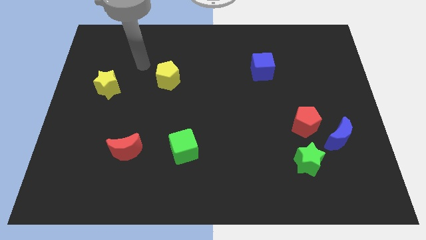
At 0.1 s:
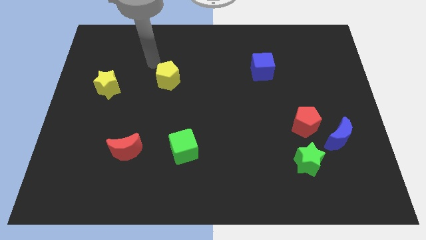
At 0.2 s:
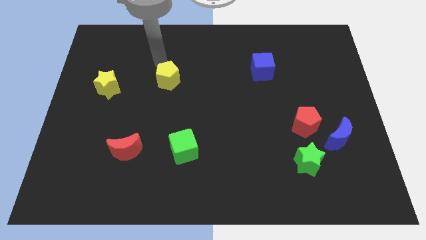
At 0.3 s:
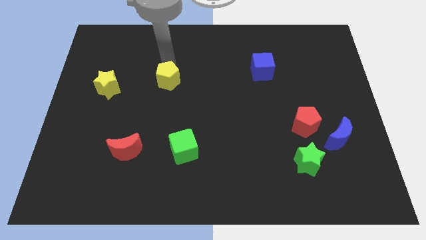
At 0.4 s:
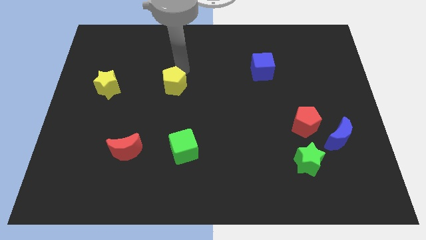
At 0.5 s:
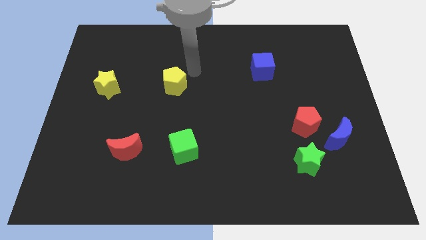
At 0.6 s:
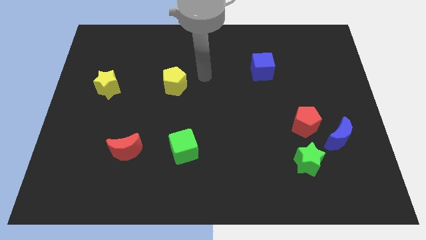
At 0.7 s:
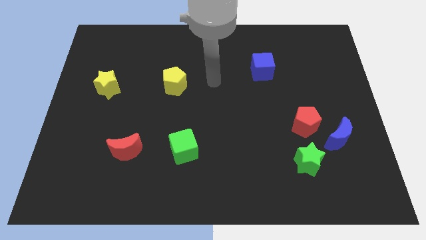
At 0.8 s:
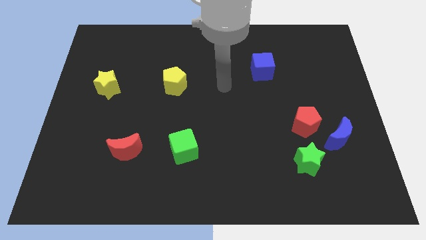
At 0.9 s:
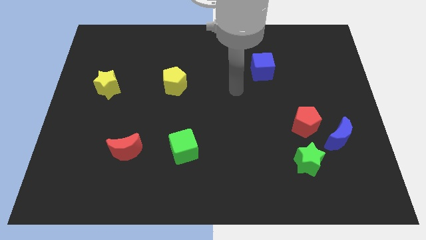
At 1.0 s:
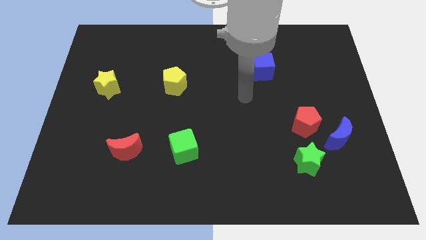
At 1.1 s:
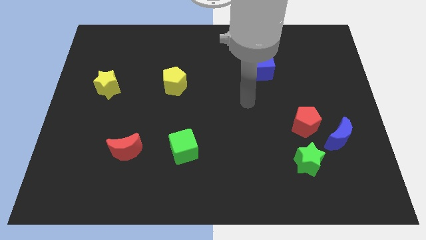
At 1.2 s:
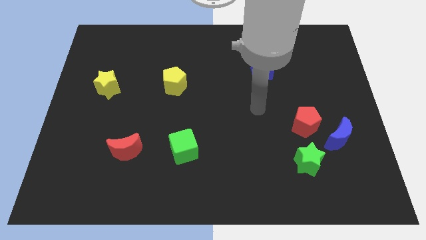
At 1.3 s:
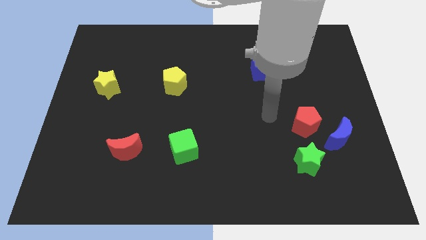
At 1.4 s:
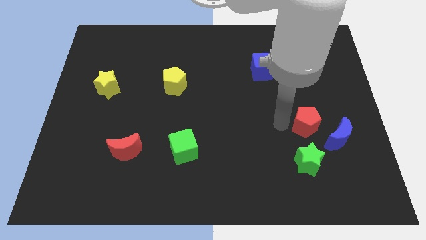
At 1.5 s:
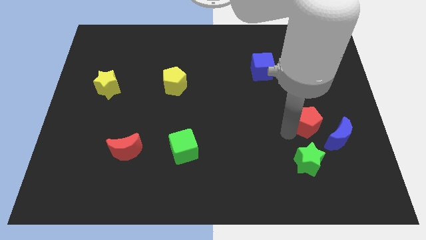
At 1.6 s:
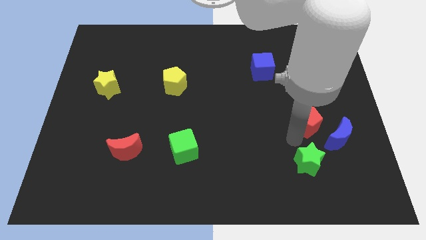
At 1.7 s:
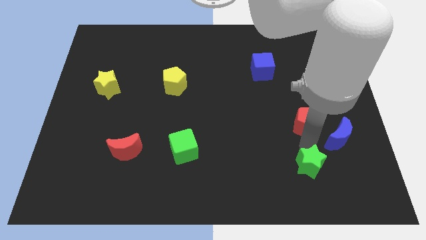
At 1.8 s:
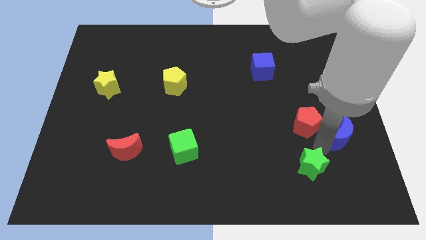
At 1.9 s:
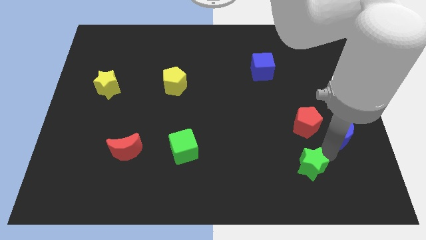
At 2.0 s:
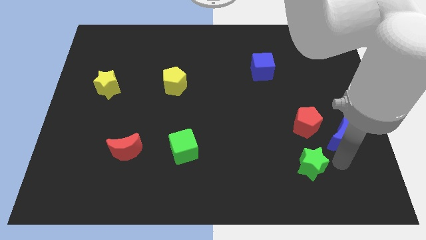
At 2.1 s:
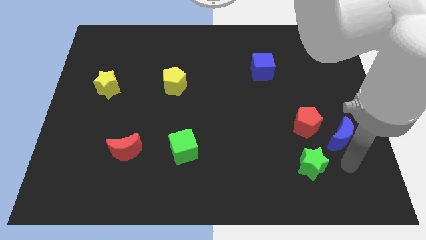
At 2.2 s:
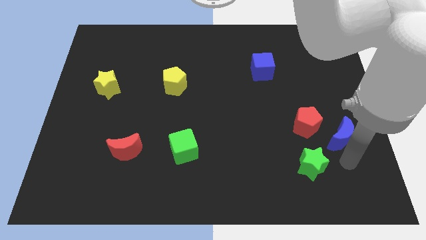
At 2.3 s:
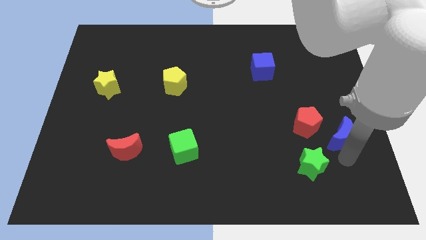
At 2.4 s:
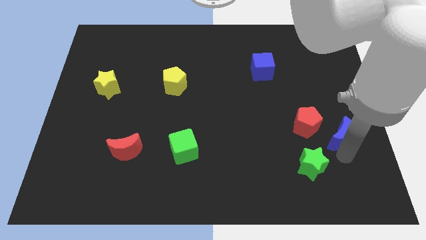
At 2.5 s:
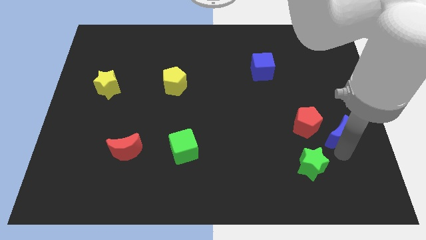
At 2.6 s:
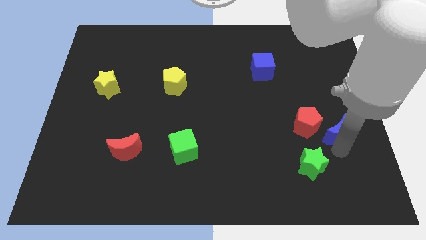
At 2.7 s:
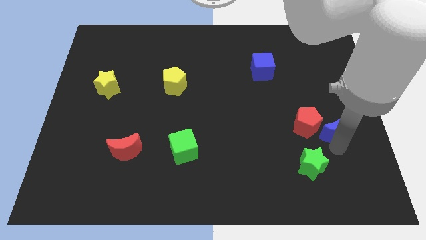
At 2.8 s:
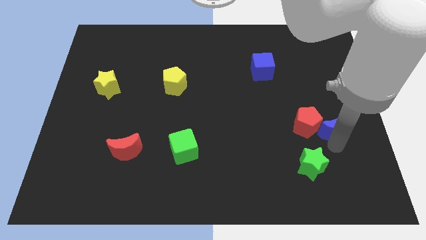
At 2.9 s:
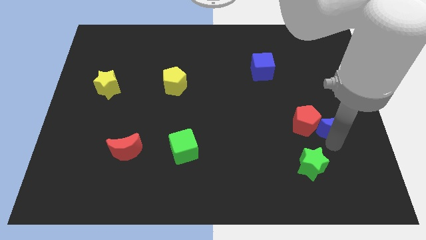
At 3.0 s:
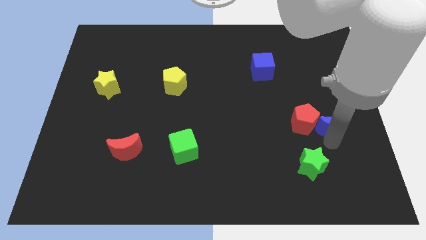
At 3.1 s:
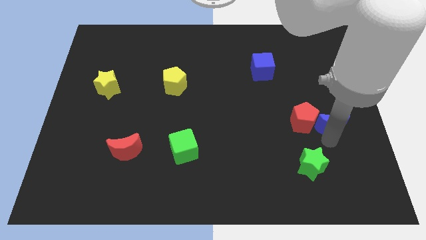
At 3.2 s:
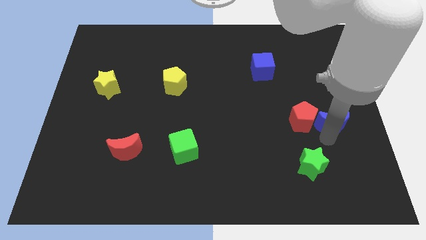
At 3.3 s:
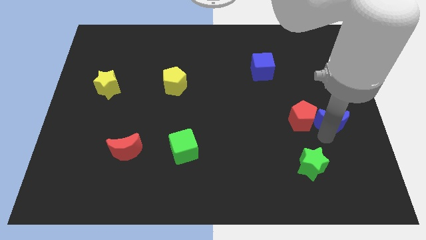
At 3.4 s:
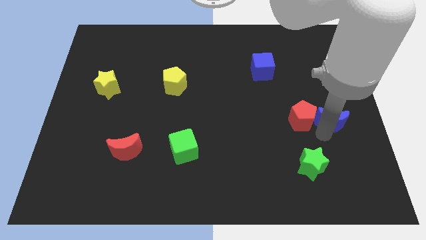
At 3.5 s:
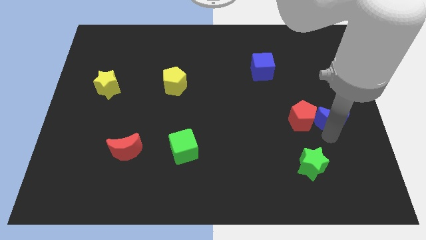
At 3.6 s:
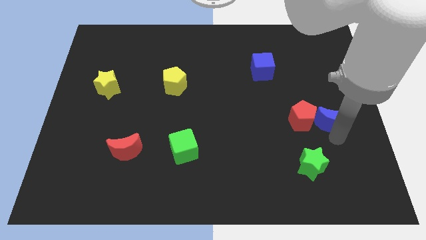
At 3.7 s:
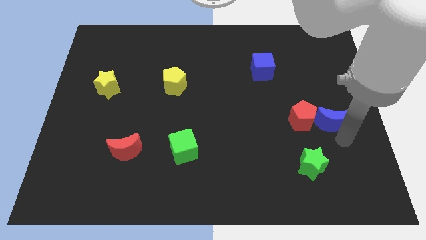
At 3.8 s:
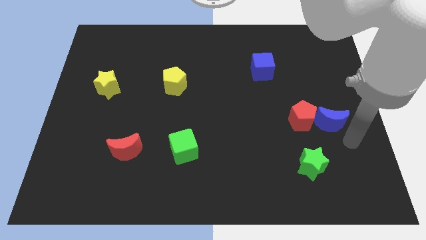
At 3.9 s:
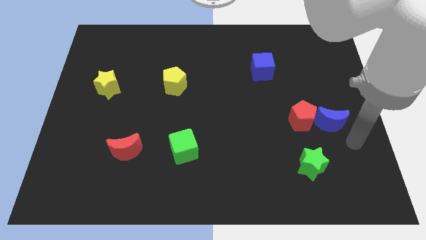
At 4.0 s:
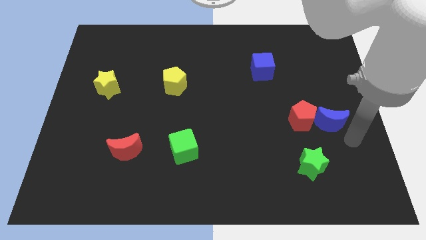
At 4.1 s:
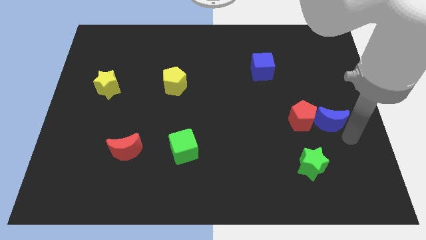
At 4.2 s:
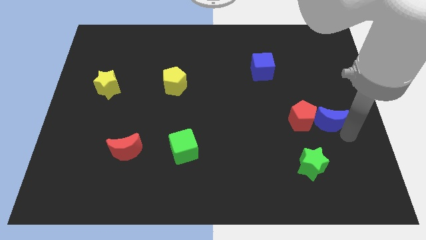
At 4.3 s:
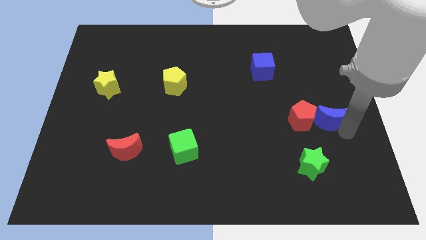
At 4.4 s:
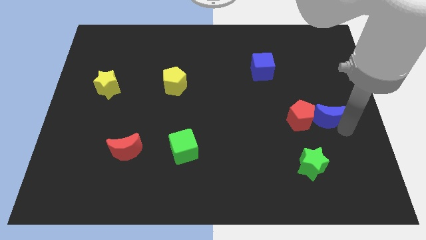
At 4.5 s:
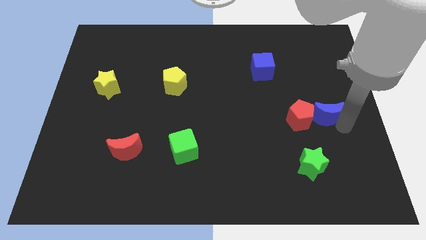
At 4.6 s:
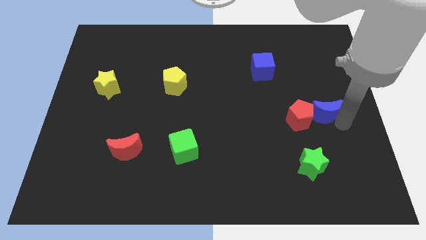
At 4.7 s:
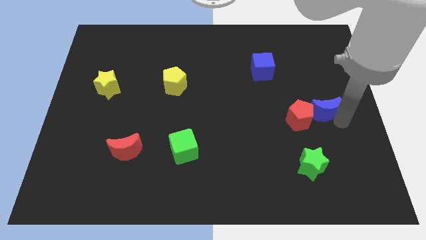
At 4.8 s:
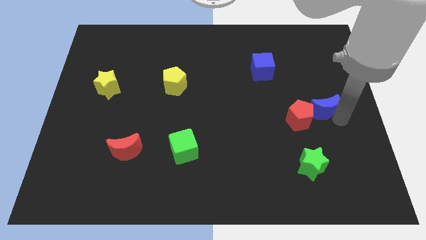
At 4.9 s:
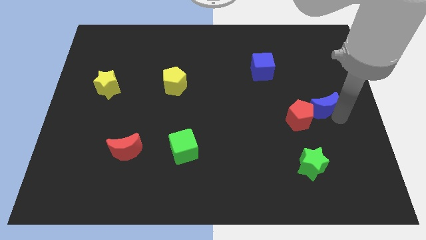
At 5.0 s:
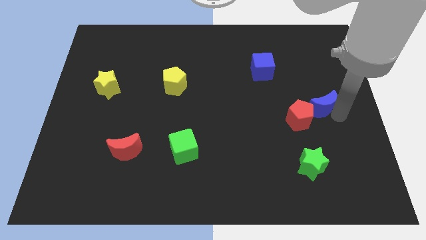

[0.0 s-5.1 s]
slide the blue moon a little bit diagonally up and left

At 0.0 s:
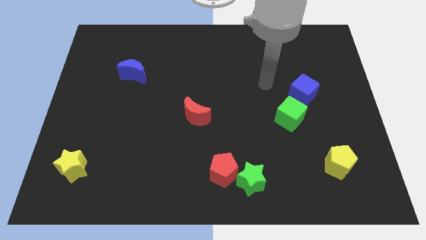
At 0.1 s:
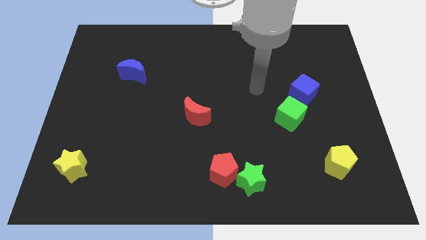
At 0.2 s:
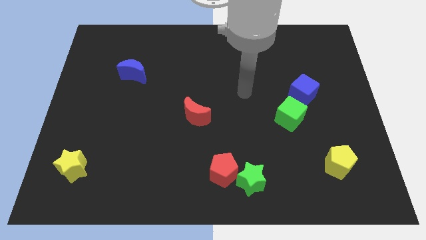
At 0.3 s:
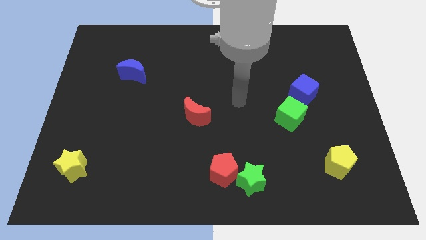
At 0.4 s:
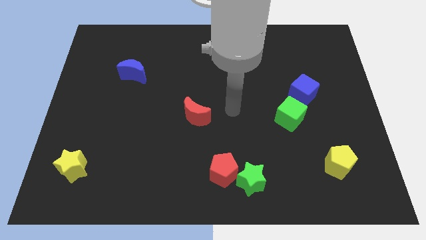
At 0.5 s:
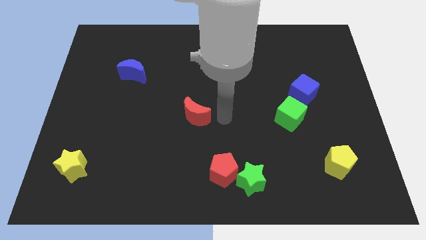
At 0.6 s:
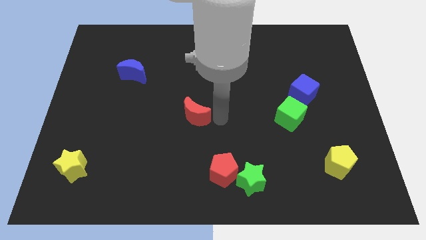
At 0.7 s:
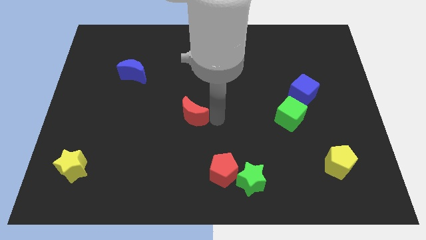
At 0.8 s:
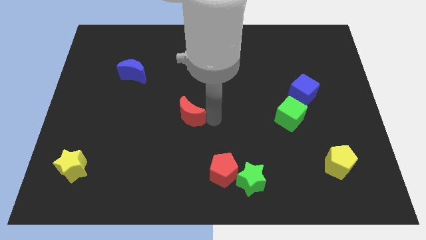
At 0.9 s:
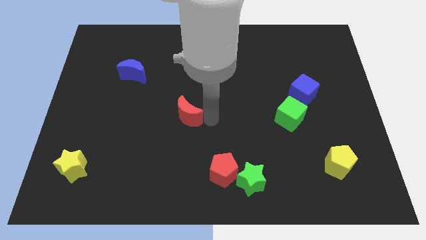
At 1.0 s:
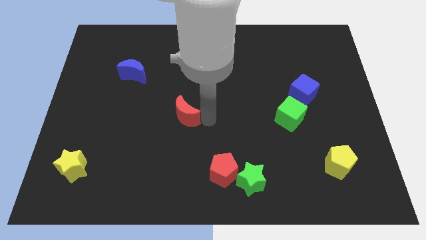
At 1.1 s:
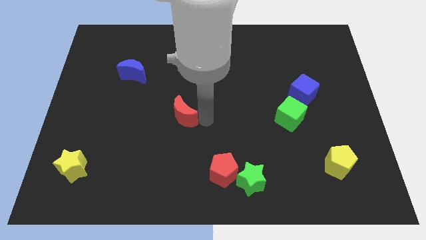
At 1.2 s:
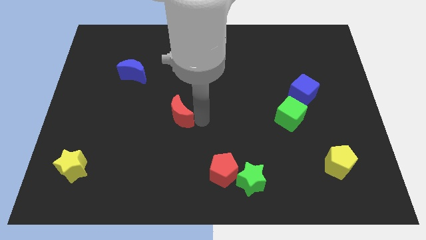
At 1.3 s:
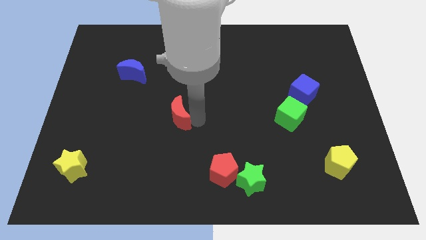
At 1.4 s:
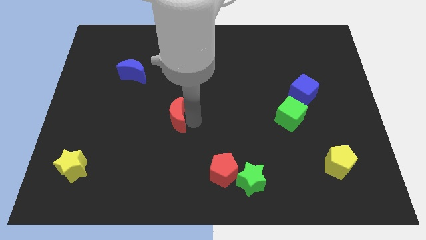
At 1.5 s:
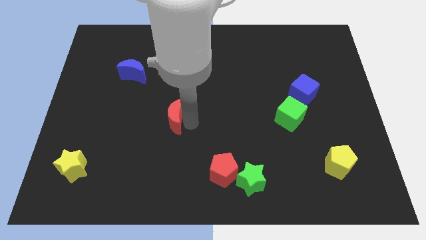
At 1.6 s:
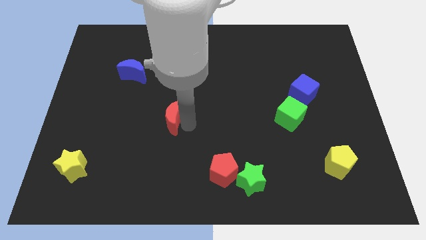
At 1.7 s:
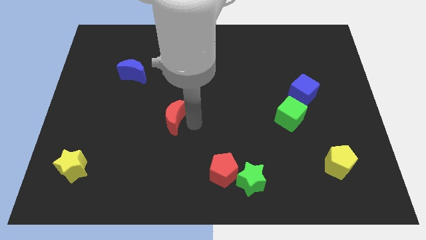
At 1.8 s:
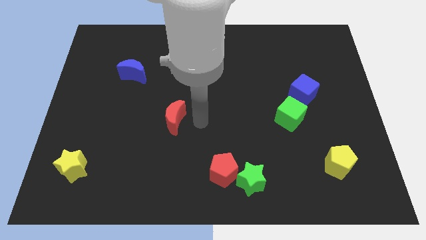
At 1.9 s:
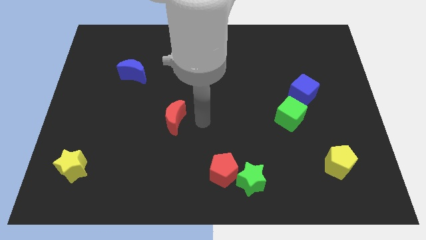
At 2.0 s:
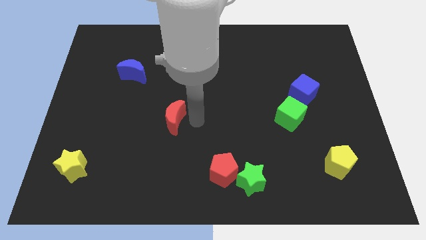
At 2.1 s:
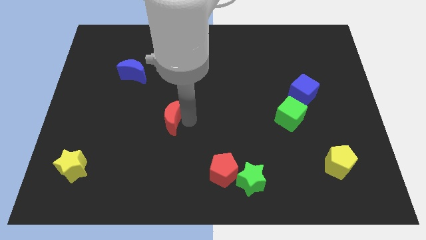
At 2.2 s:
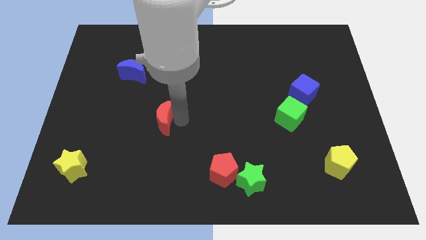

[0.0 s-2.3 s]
push the red moon a little left

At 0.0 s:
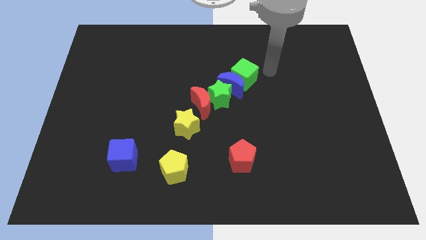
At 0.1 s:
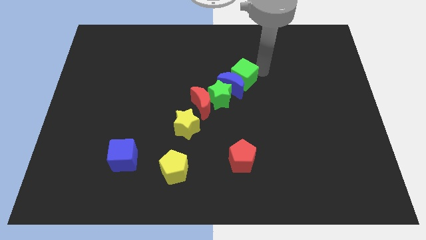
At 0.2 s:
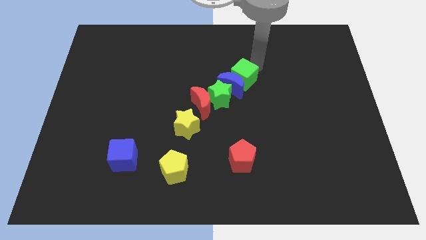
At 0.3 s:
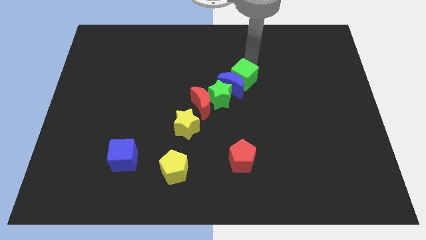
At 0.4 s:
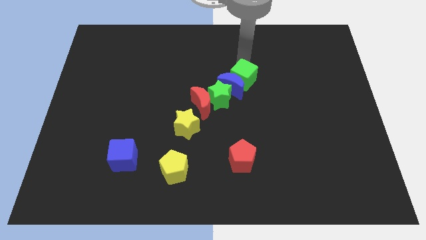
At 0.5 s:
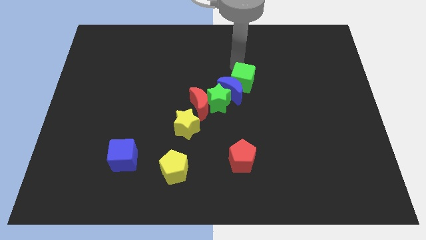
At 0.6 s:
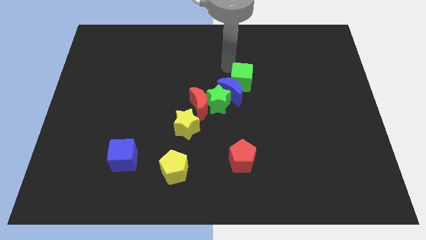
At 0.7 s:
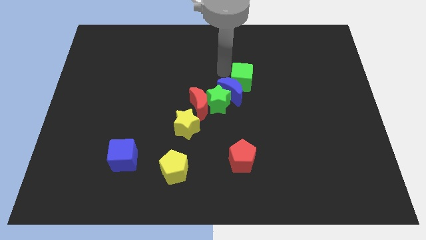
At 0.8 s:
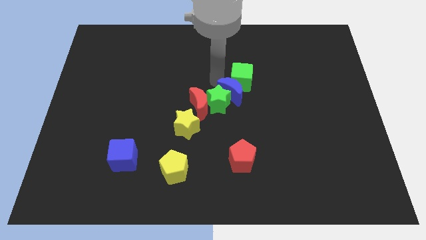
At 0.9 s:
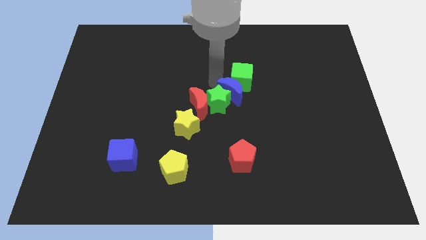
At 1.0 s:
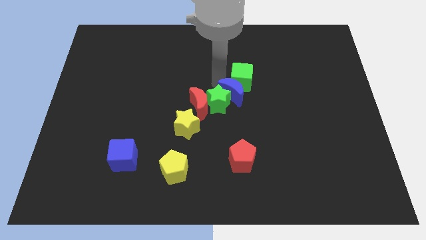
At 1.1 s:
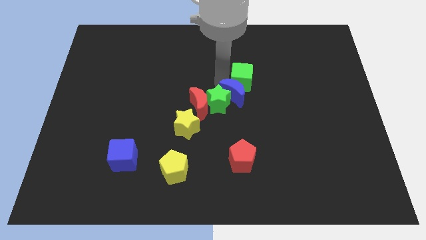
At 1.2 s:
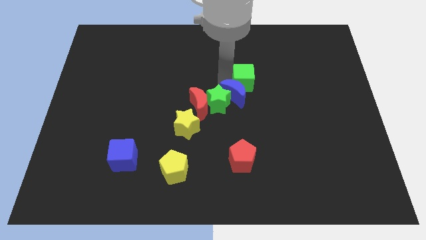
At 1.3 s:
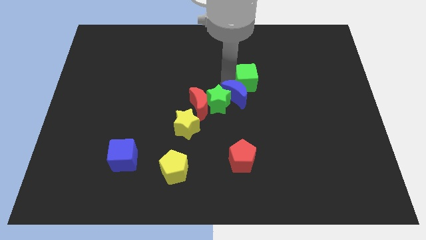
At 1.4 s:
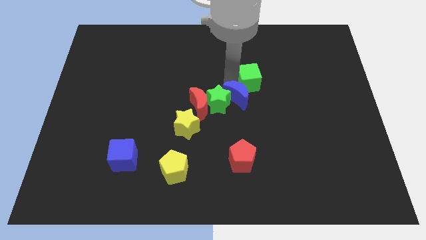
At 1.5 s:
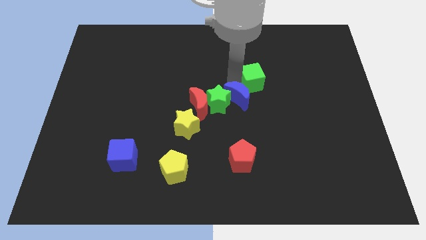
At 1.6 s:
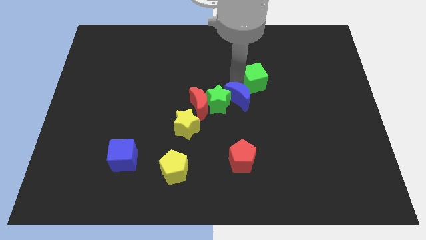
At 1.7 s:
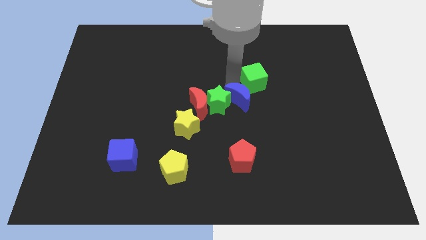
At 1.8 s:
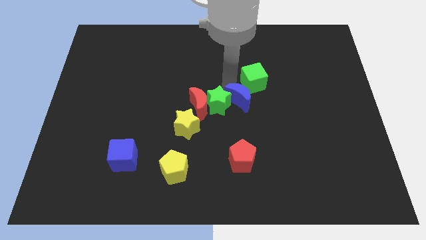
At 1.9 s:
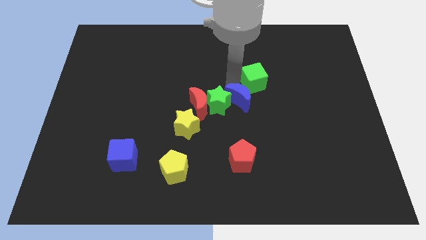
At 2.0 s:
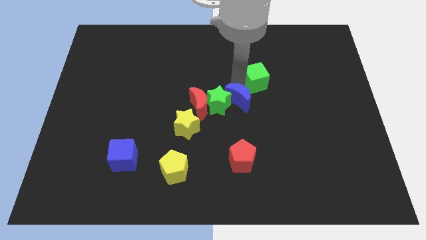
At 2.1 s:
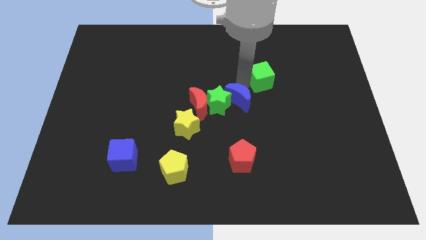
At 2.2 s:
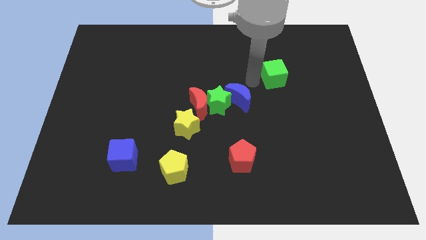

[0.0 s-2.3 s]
slightly push the green cube right
